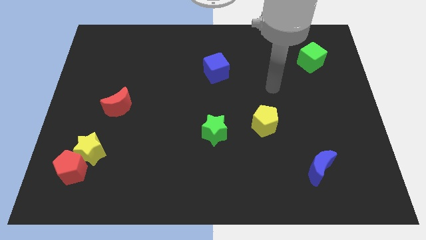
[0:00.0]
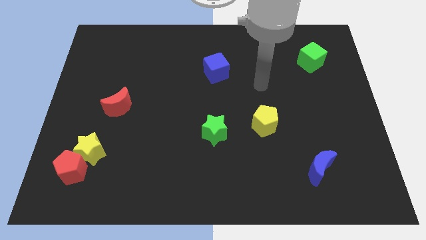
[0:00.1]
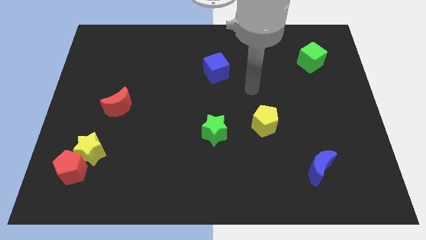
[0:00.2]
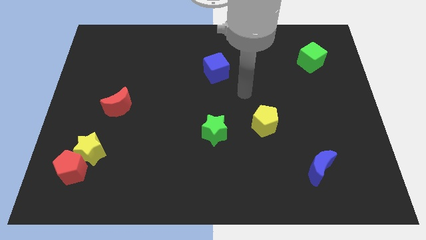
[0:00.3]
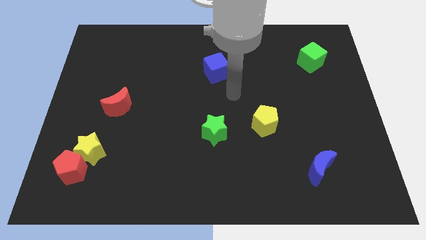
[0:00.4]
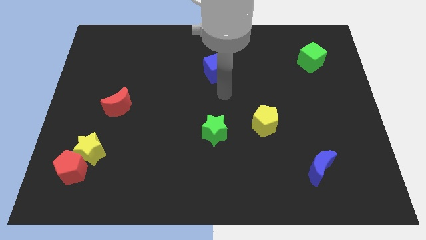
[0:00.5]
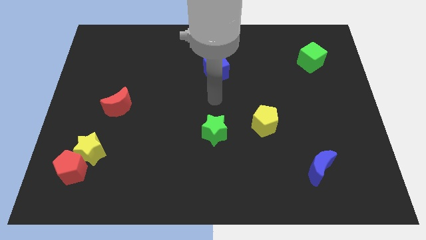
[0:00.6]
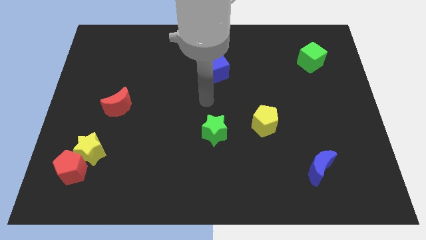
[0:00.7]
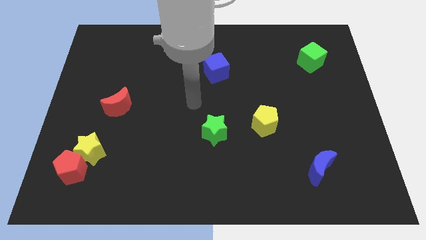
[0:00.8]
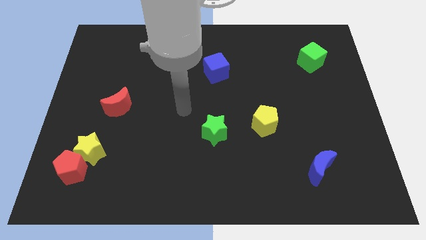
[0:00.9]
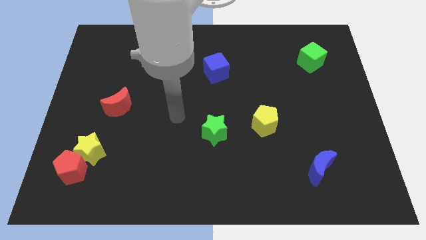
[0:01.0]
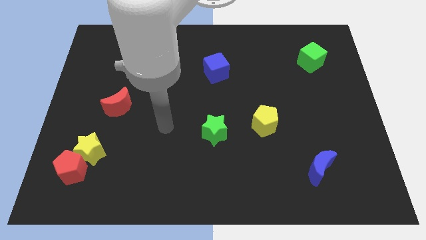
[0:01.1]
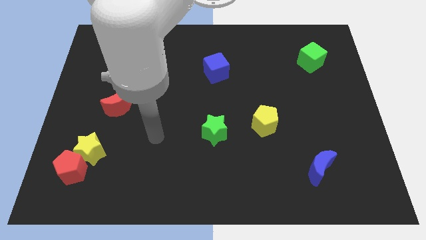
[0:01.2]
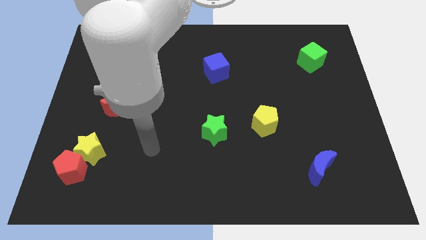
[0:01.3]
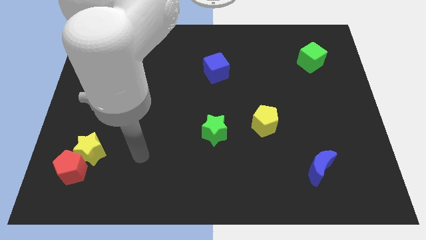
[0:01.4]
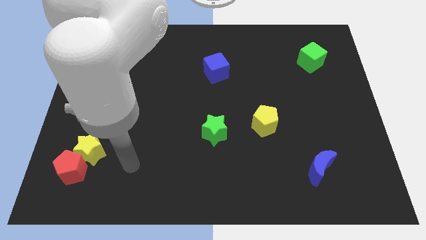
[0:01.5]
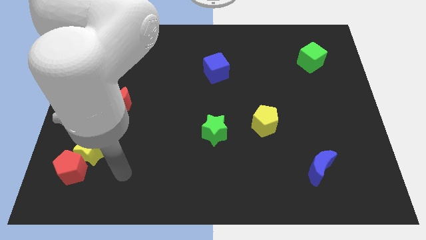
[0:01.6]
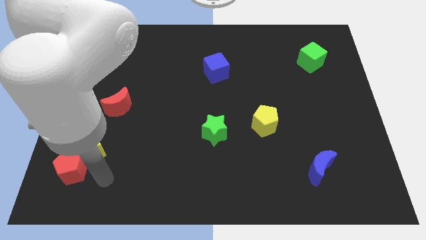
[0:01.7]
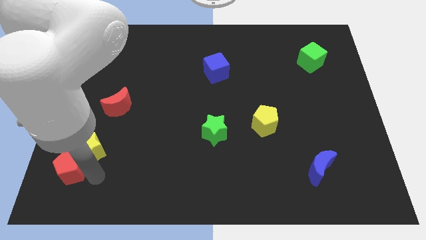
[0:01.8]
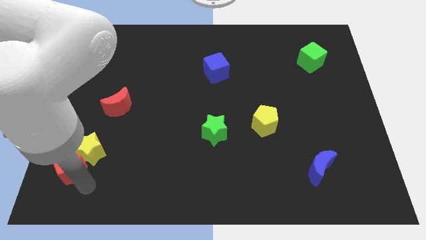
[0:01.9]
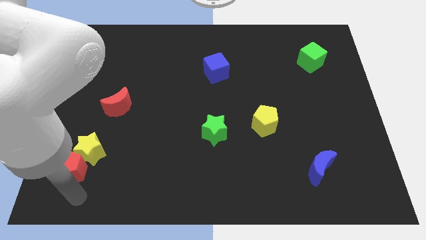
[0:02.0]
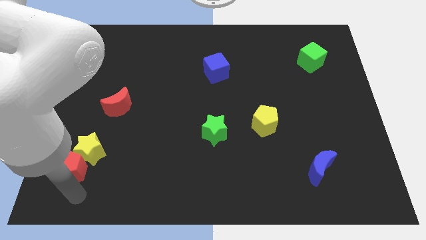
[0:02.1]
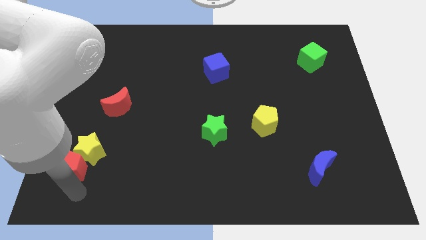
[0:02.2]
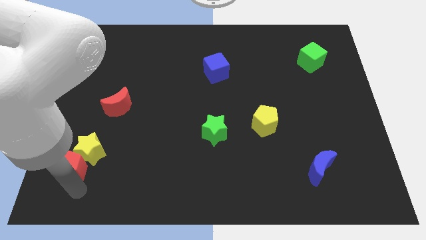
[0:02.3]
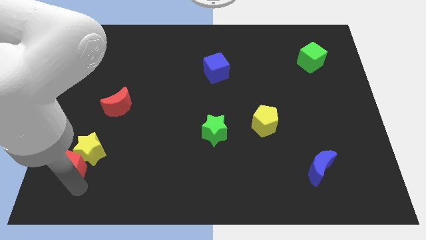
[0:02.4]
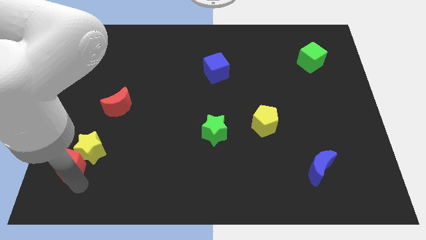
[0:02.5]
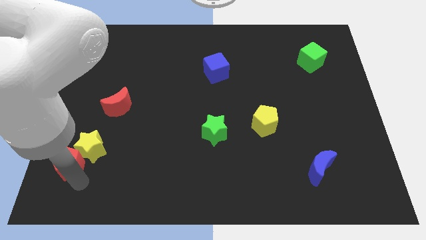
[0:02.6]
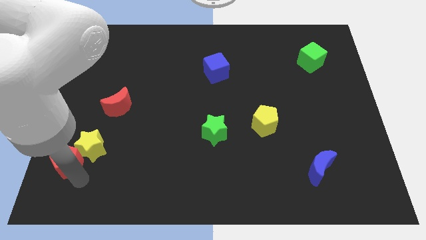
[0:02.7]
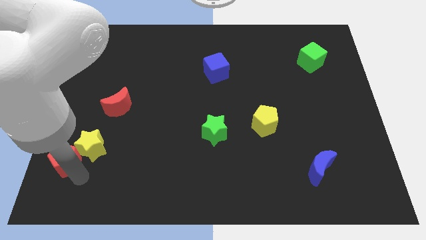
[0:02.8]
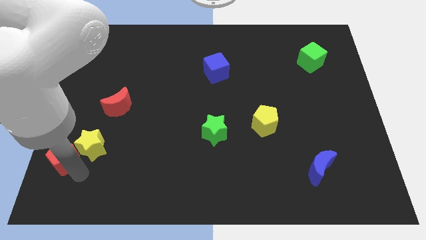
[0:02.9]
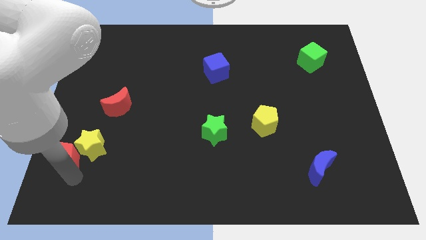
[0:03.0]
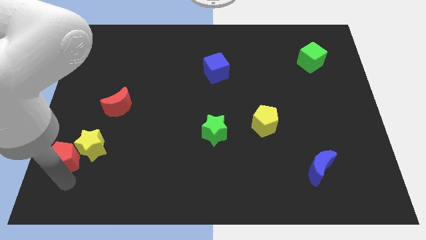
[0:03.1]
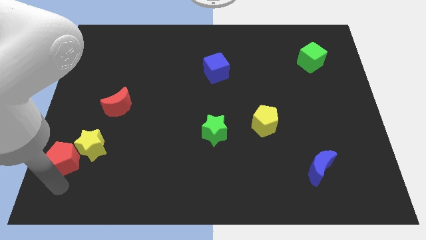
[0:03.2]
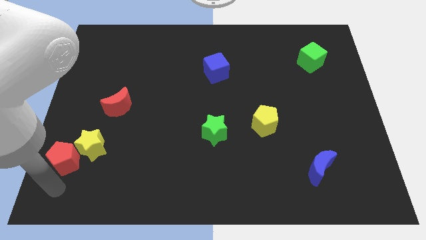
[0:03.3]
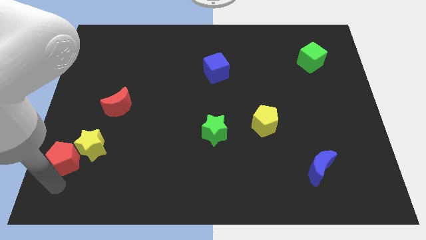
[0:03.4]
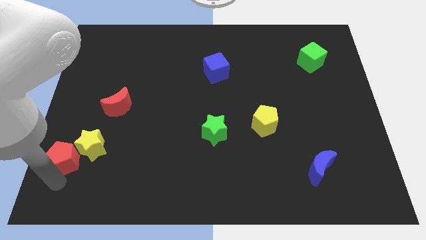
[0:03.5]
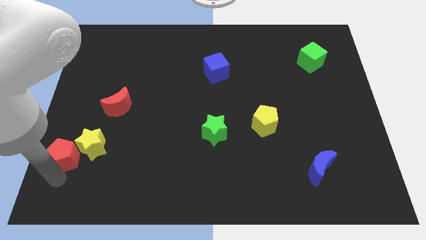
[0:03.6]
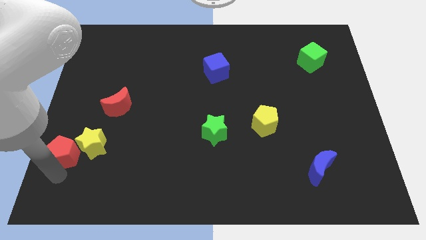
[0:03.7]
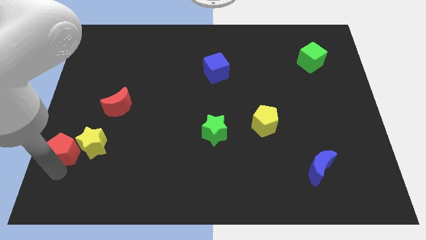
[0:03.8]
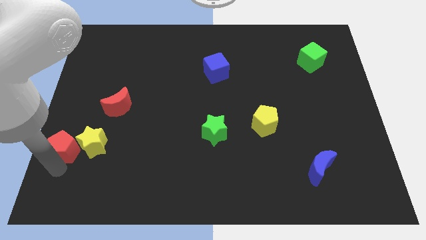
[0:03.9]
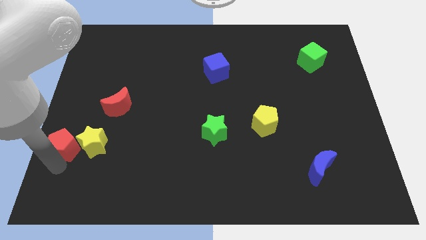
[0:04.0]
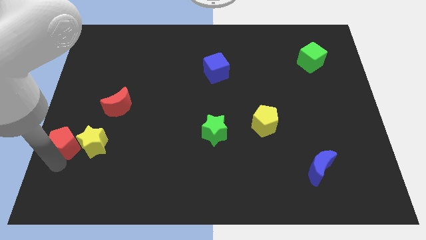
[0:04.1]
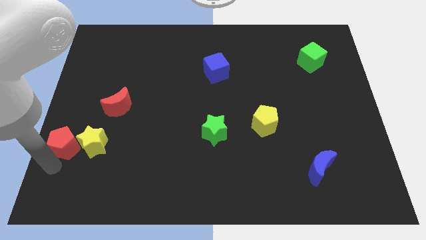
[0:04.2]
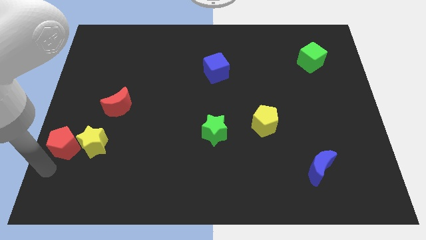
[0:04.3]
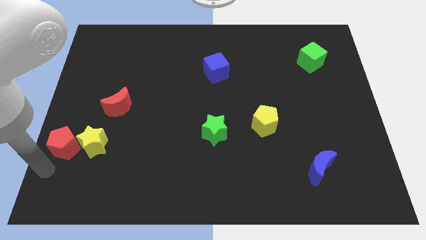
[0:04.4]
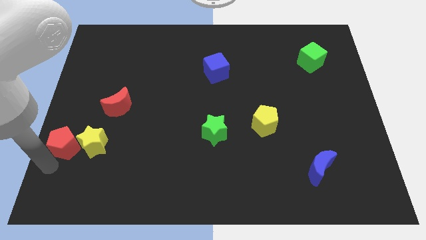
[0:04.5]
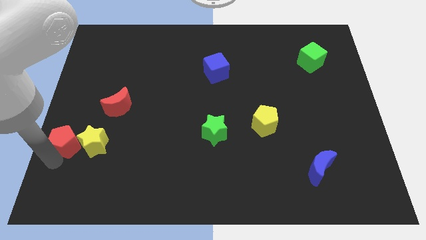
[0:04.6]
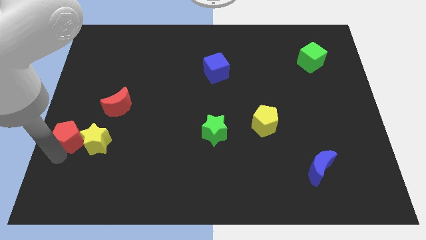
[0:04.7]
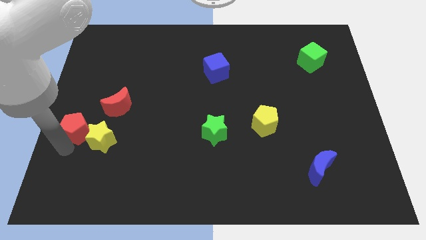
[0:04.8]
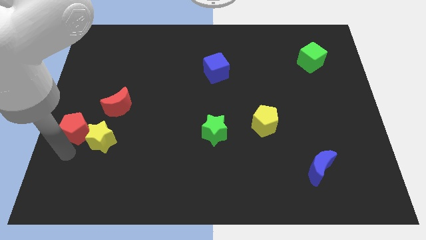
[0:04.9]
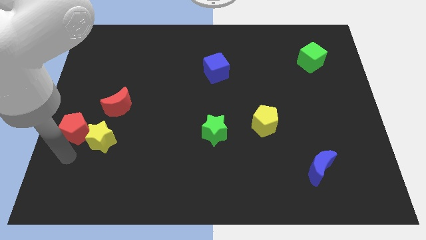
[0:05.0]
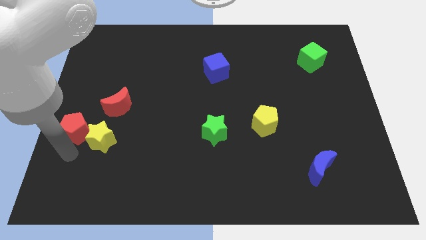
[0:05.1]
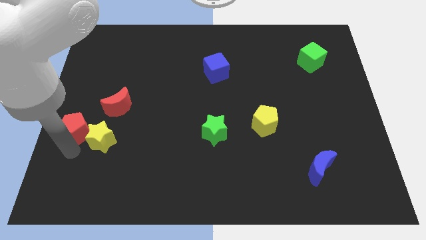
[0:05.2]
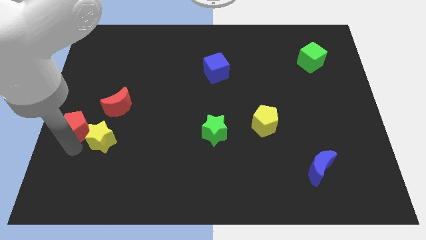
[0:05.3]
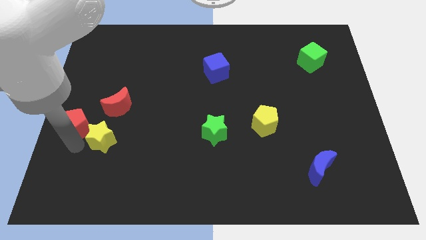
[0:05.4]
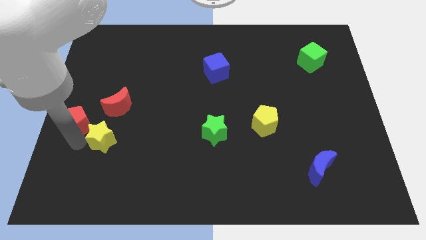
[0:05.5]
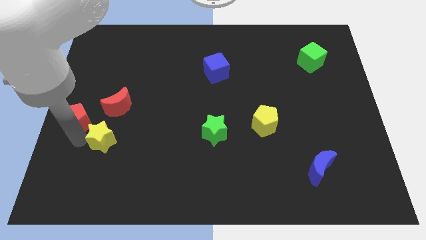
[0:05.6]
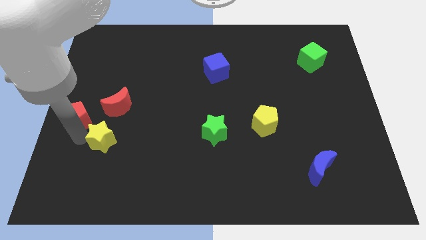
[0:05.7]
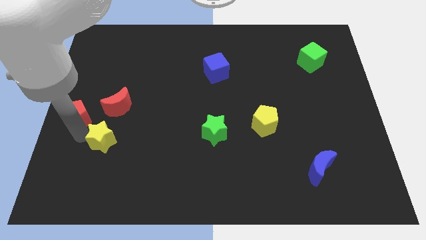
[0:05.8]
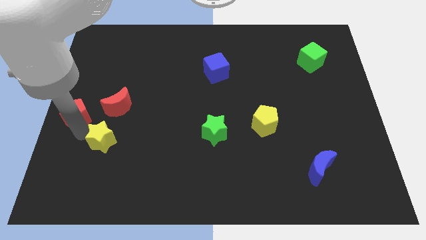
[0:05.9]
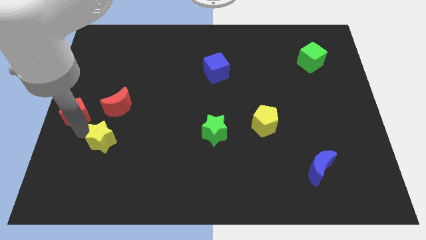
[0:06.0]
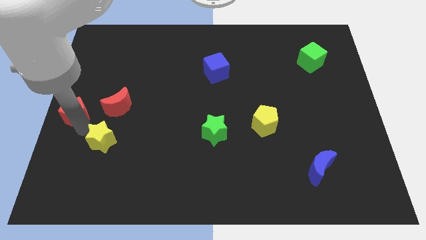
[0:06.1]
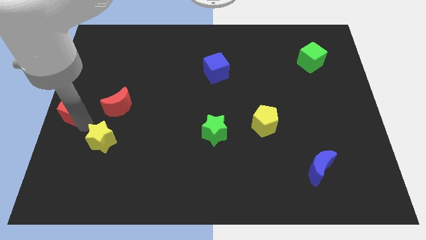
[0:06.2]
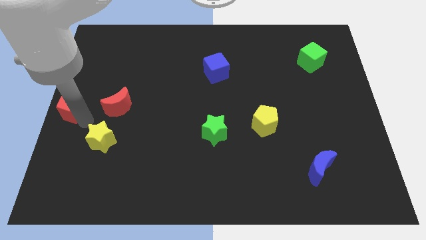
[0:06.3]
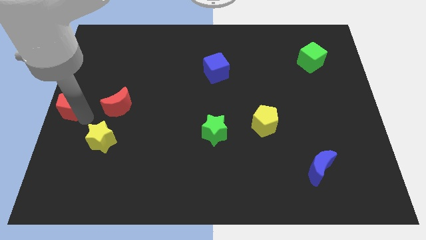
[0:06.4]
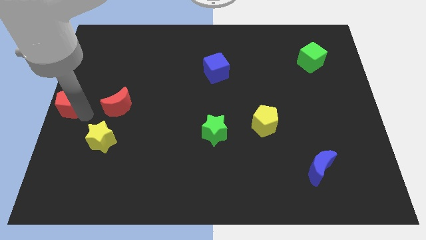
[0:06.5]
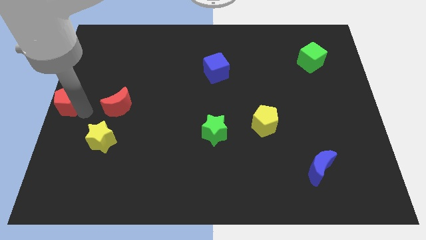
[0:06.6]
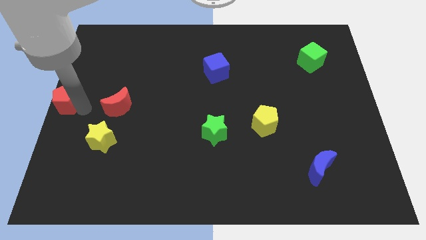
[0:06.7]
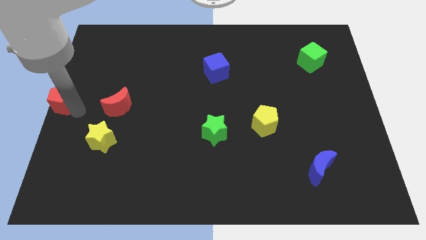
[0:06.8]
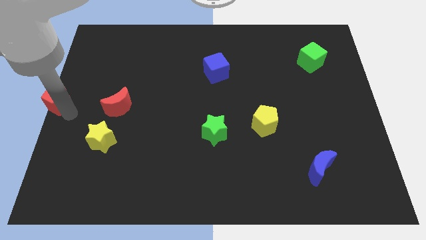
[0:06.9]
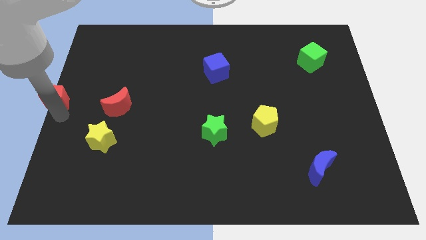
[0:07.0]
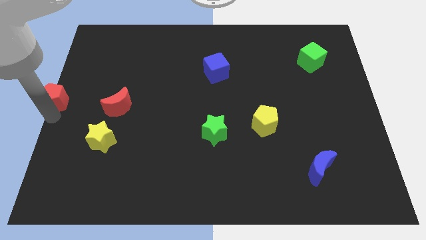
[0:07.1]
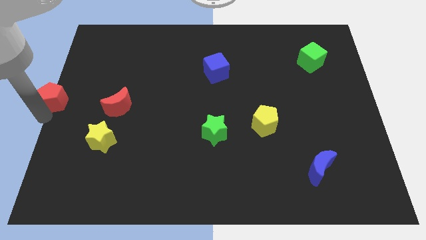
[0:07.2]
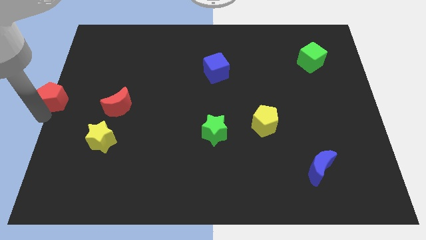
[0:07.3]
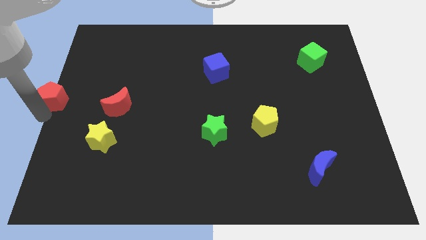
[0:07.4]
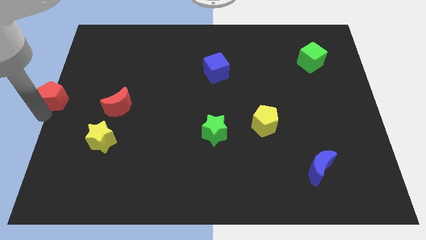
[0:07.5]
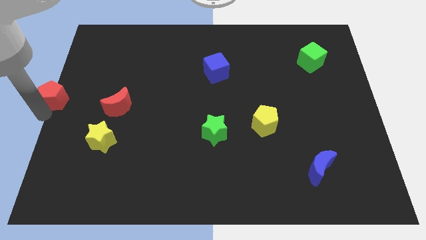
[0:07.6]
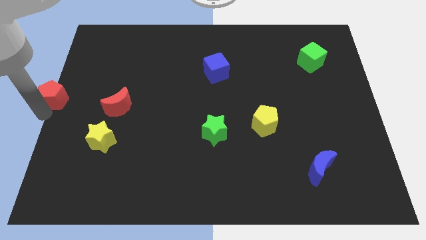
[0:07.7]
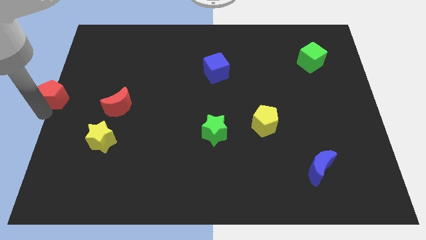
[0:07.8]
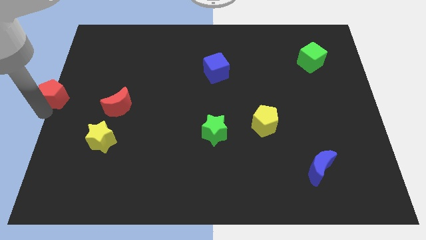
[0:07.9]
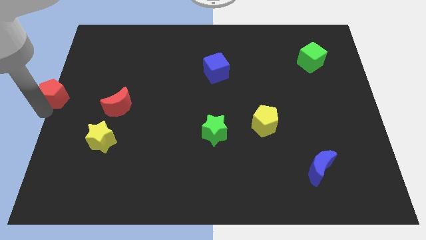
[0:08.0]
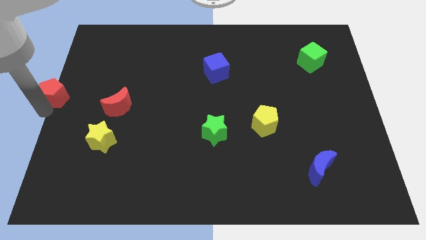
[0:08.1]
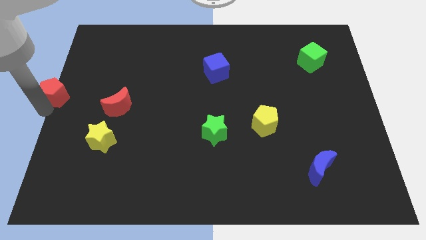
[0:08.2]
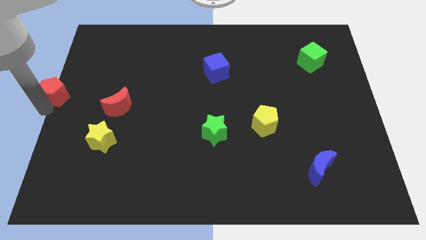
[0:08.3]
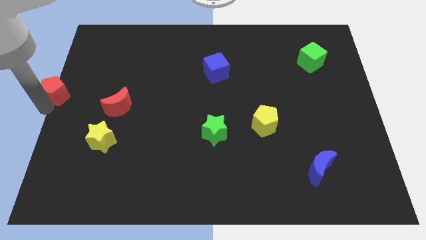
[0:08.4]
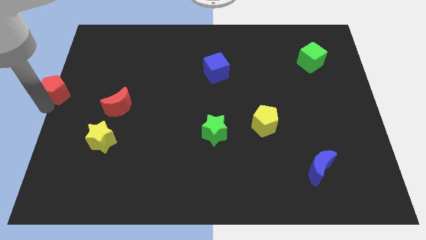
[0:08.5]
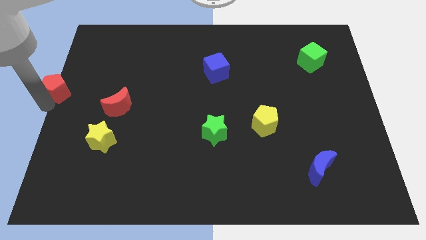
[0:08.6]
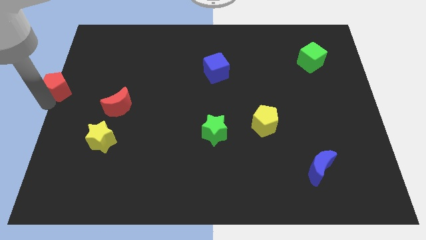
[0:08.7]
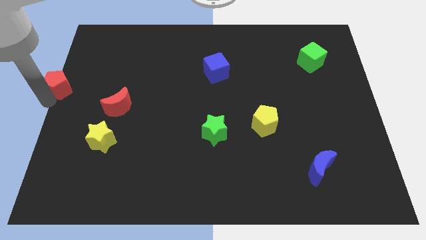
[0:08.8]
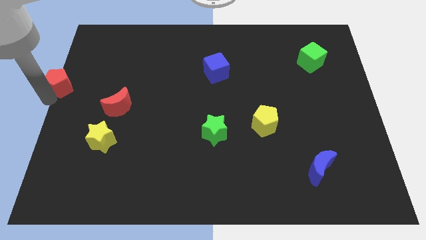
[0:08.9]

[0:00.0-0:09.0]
move the red pentagon up
